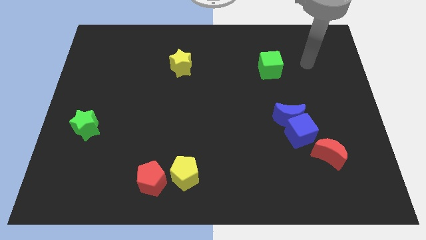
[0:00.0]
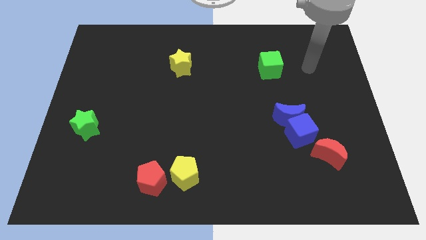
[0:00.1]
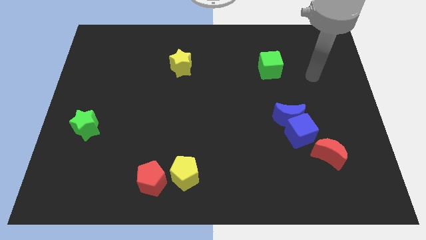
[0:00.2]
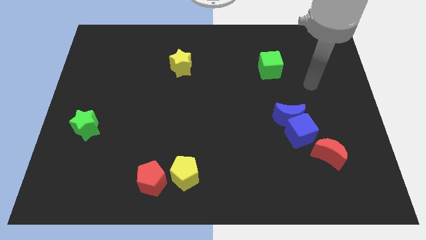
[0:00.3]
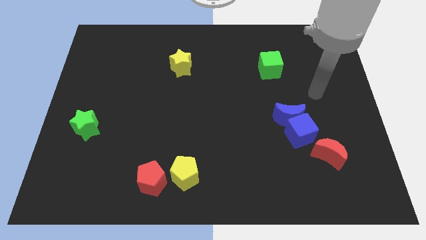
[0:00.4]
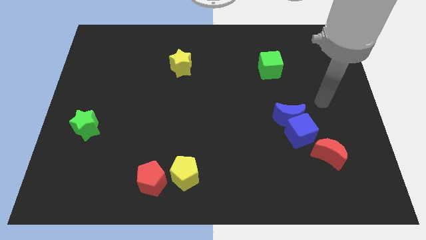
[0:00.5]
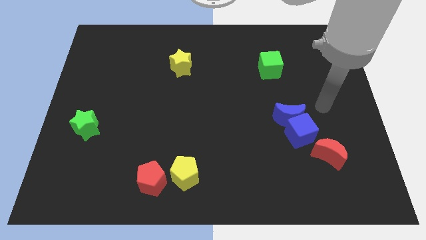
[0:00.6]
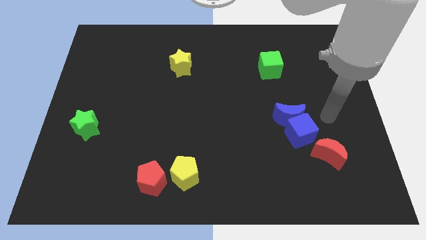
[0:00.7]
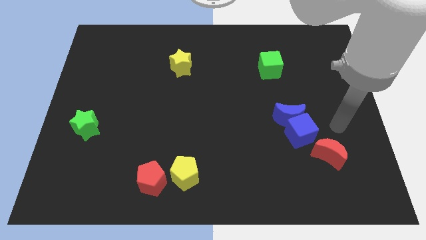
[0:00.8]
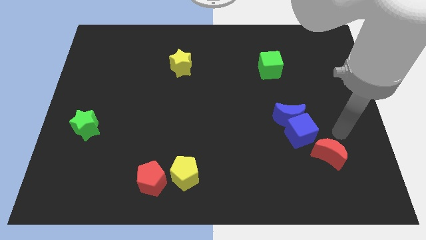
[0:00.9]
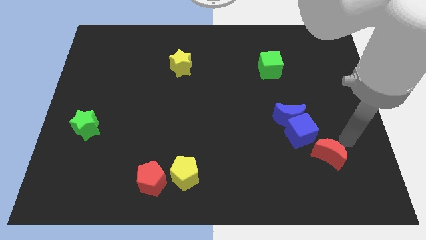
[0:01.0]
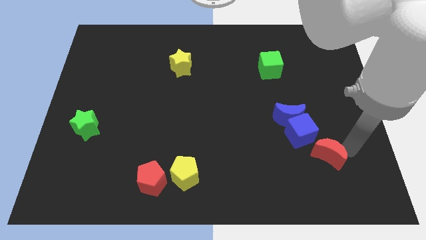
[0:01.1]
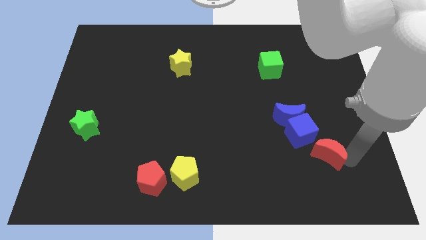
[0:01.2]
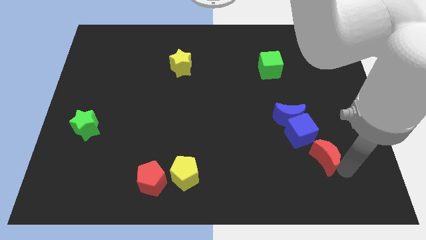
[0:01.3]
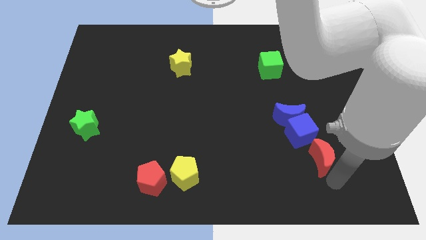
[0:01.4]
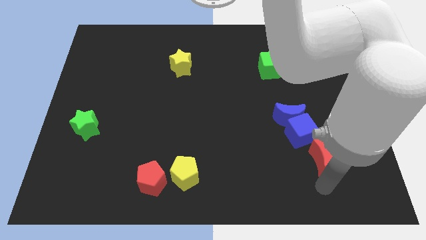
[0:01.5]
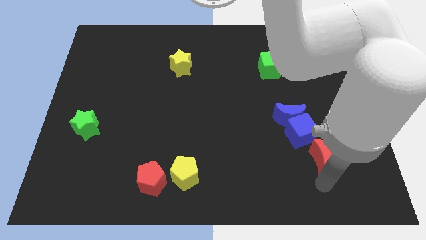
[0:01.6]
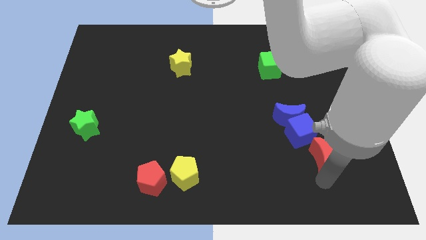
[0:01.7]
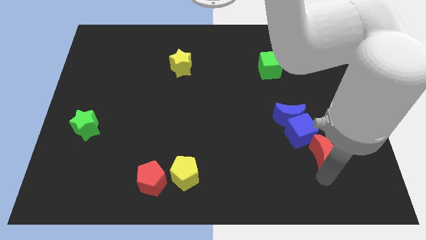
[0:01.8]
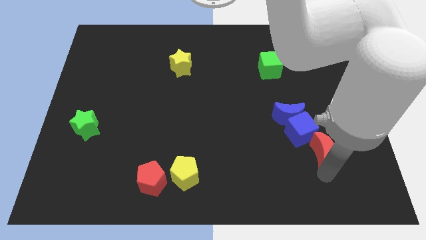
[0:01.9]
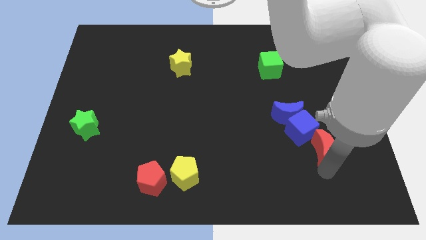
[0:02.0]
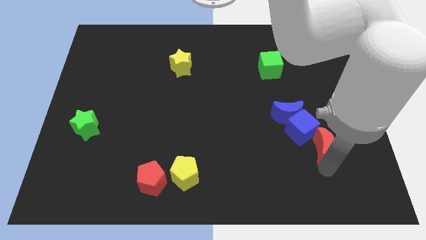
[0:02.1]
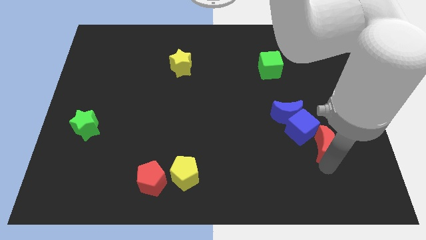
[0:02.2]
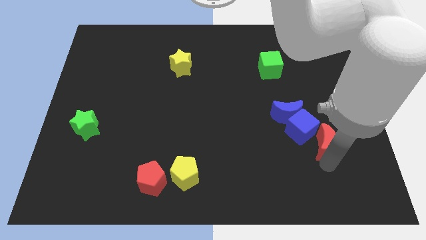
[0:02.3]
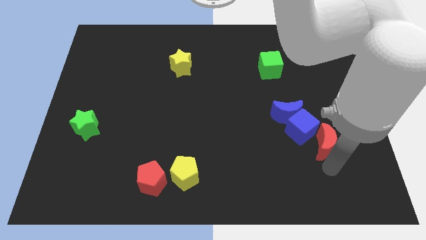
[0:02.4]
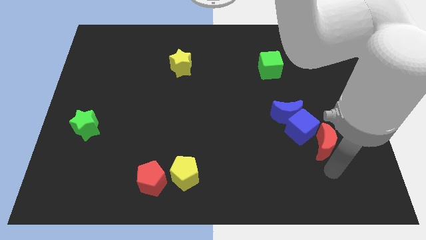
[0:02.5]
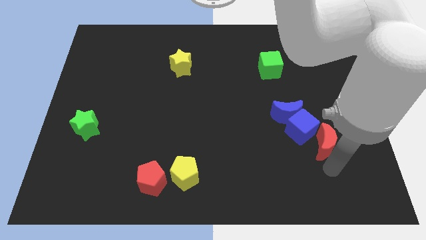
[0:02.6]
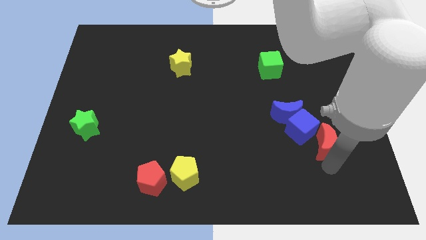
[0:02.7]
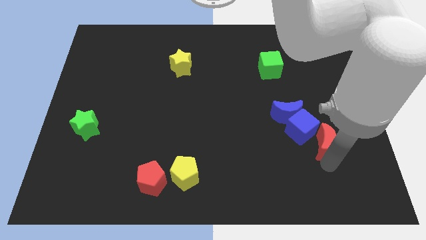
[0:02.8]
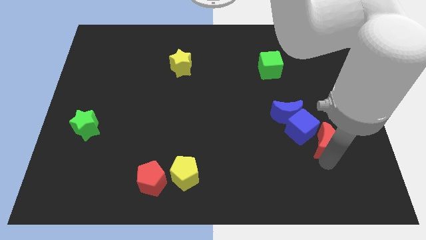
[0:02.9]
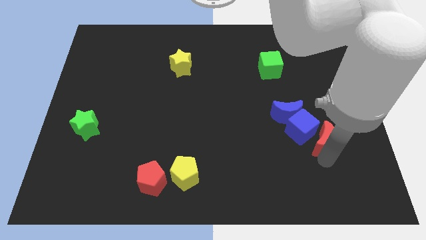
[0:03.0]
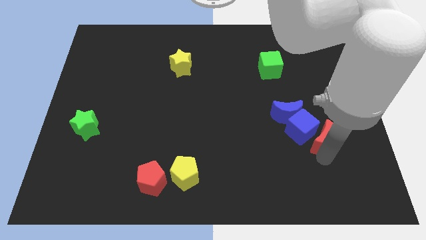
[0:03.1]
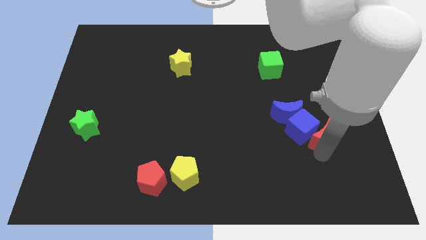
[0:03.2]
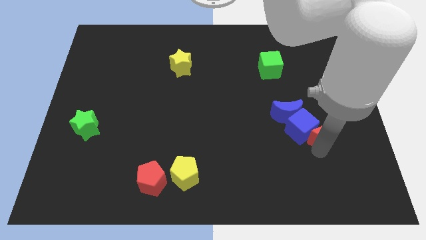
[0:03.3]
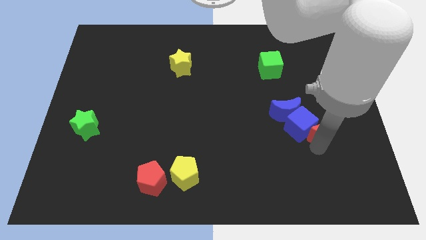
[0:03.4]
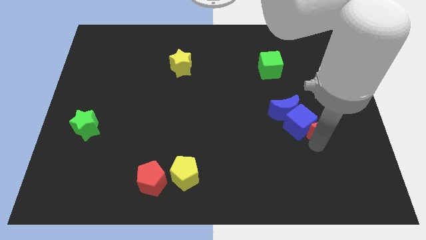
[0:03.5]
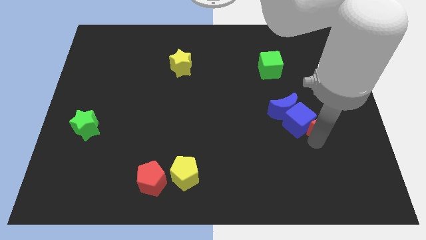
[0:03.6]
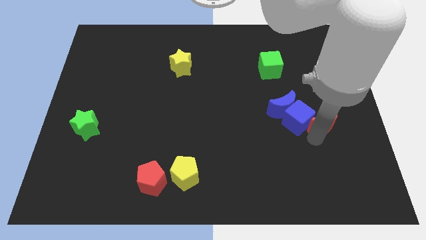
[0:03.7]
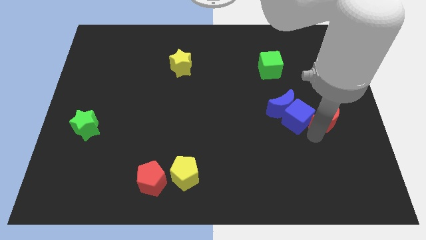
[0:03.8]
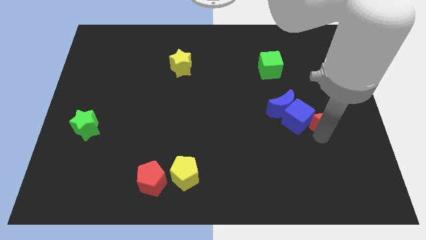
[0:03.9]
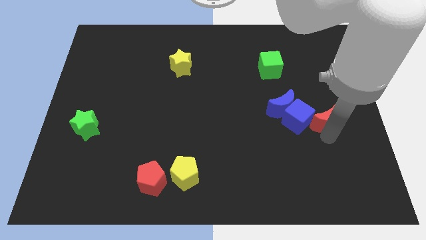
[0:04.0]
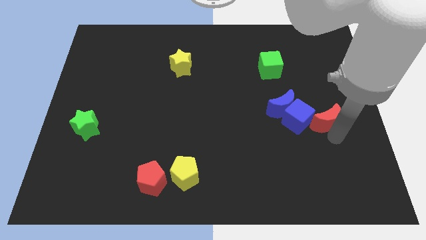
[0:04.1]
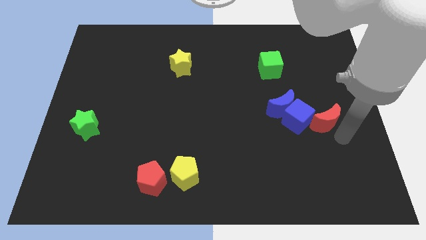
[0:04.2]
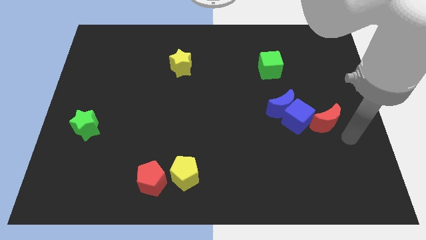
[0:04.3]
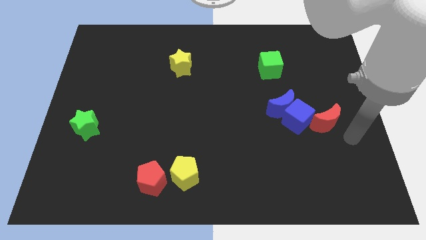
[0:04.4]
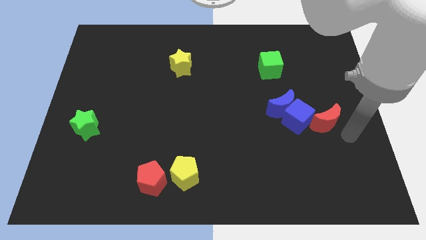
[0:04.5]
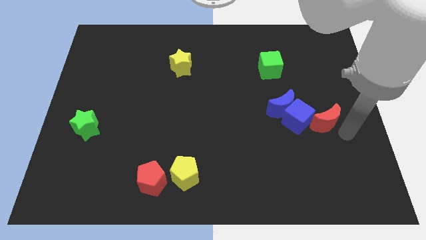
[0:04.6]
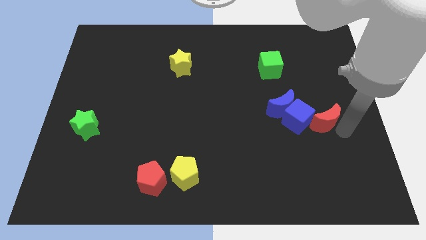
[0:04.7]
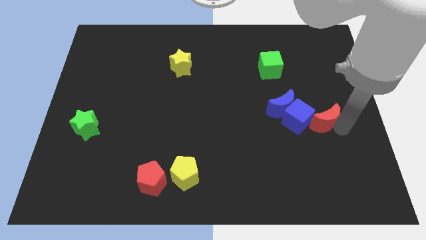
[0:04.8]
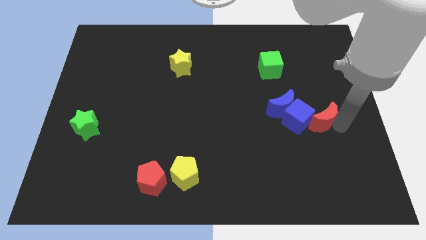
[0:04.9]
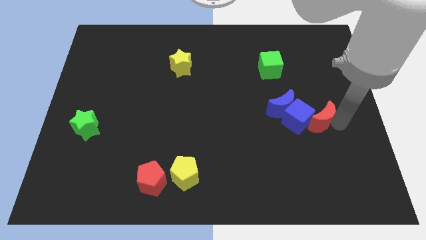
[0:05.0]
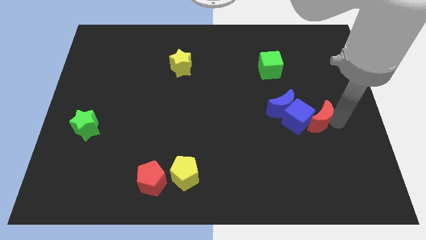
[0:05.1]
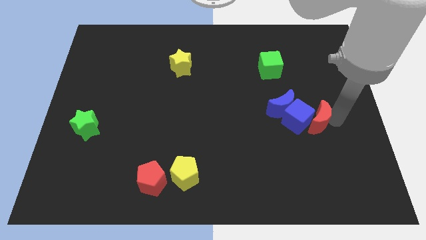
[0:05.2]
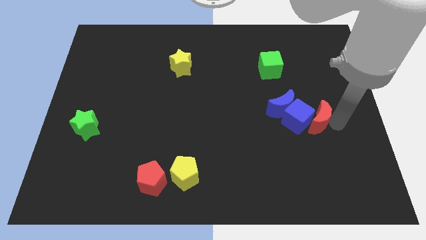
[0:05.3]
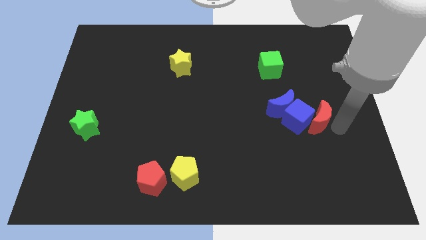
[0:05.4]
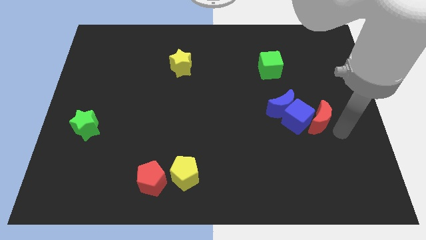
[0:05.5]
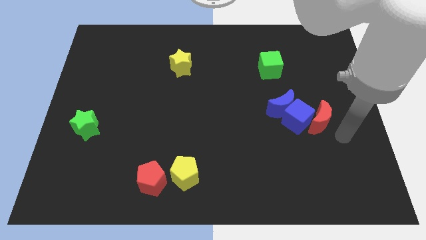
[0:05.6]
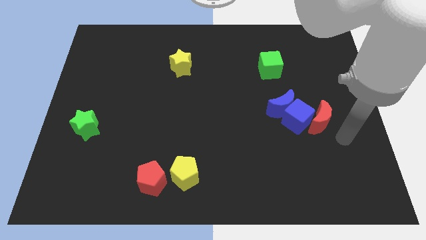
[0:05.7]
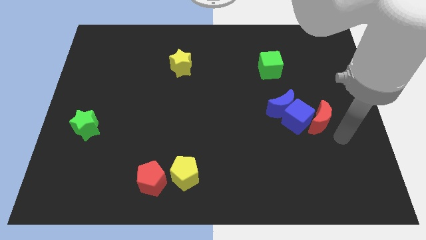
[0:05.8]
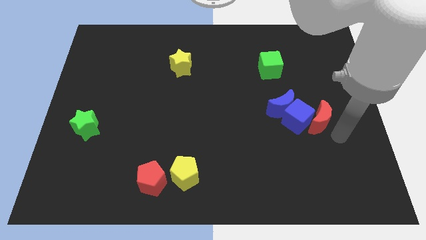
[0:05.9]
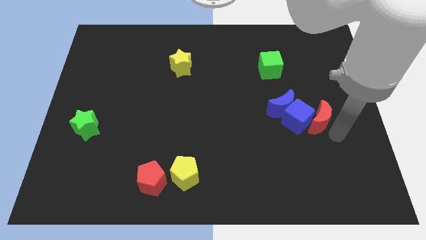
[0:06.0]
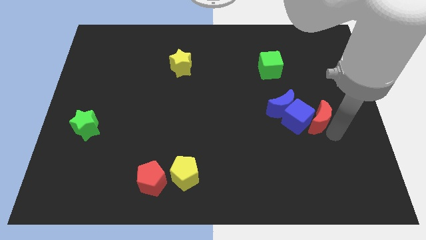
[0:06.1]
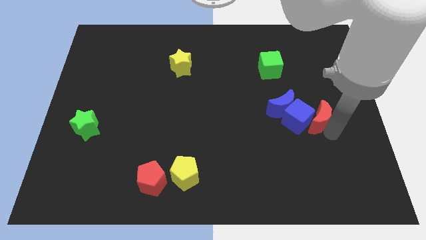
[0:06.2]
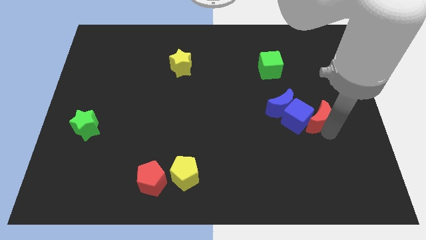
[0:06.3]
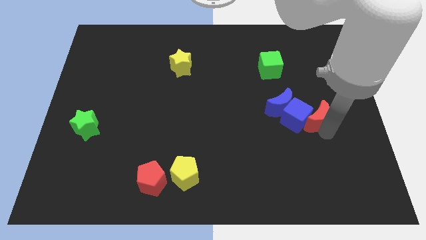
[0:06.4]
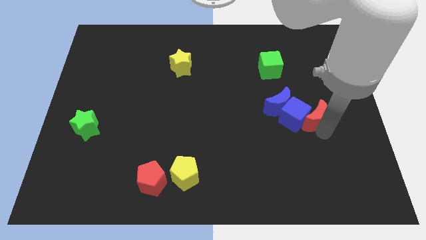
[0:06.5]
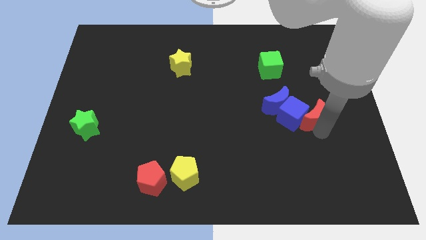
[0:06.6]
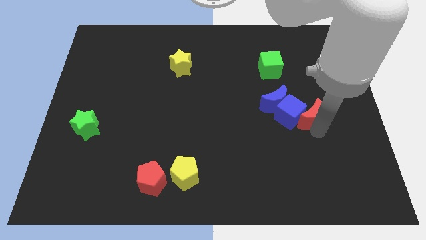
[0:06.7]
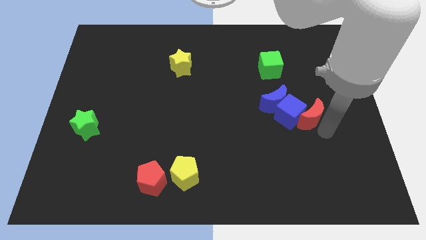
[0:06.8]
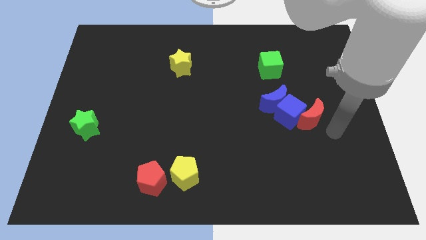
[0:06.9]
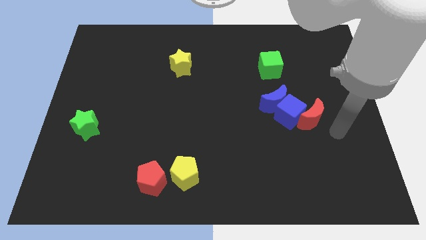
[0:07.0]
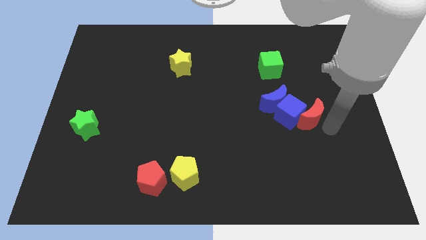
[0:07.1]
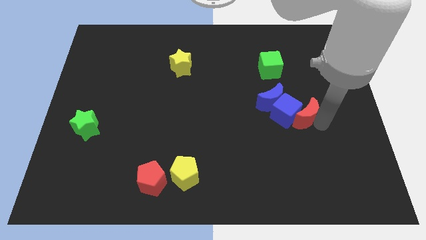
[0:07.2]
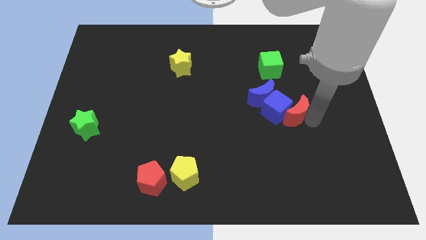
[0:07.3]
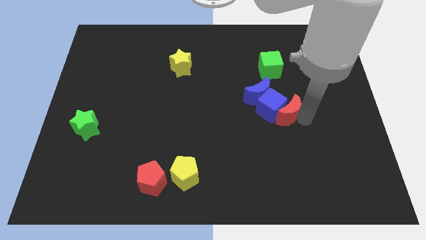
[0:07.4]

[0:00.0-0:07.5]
put the red moon below the green cube
